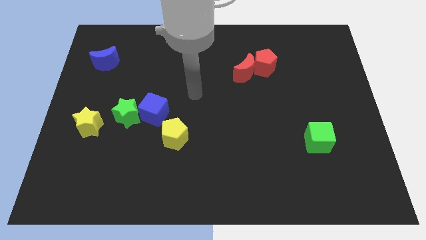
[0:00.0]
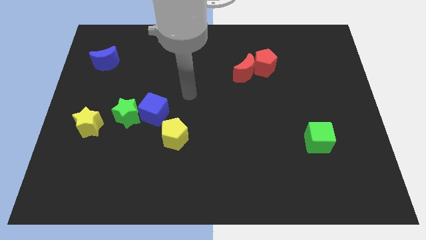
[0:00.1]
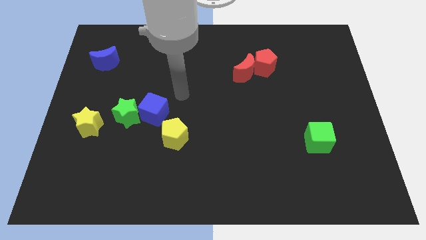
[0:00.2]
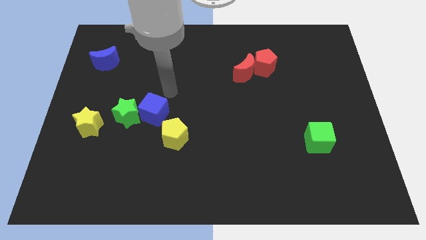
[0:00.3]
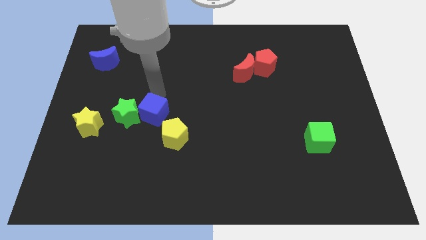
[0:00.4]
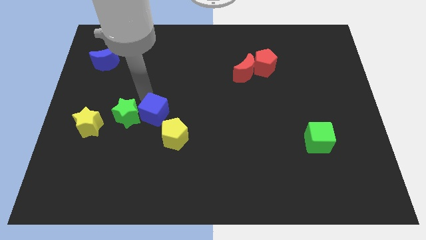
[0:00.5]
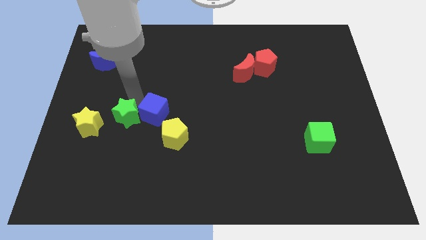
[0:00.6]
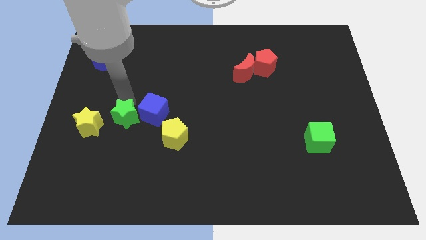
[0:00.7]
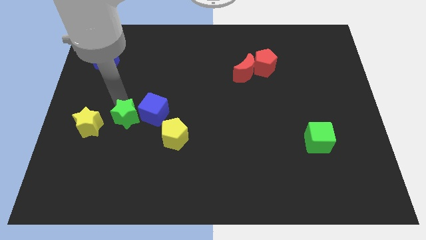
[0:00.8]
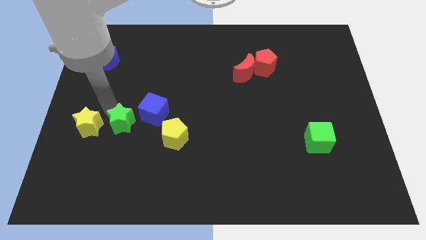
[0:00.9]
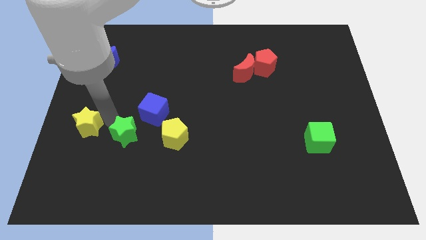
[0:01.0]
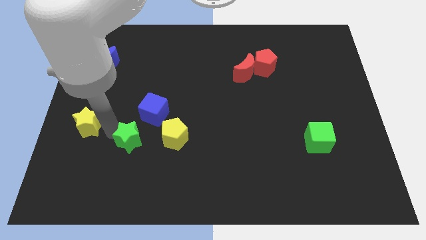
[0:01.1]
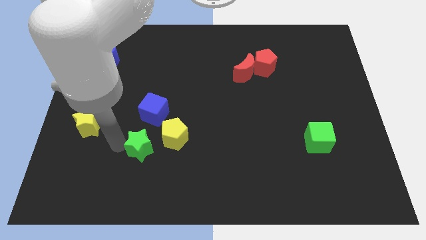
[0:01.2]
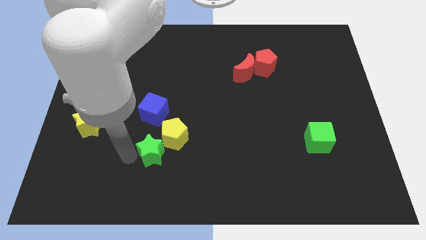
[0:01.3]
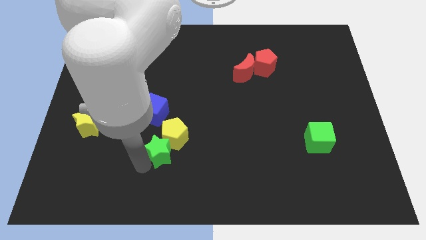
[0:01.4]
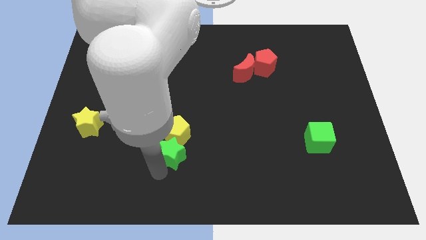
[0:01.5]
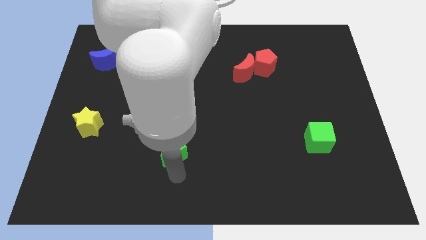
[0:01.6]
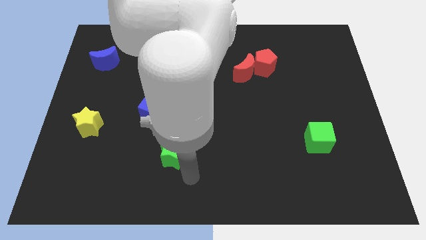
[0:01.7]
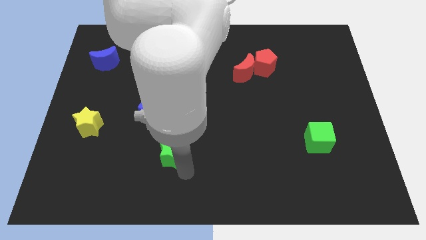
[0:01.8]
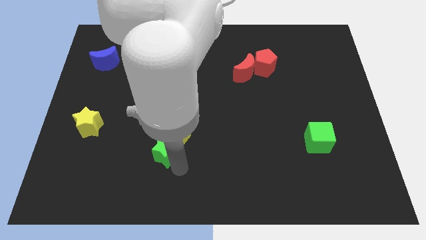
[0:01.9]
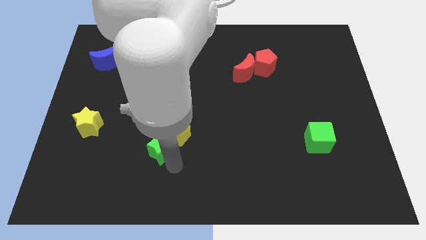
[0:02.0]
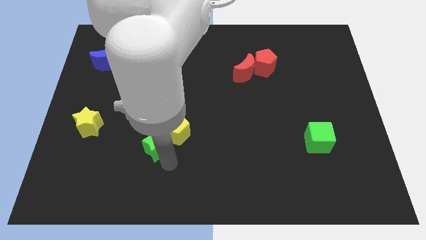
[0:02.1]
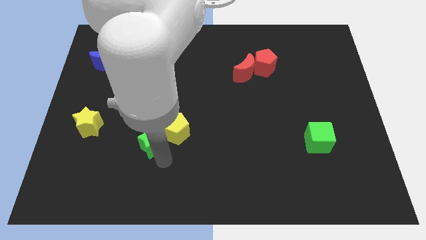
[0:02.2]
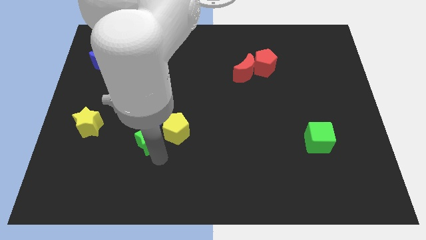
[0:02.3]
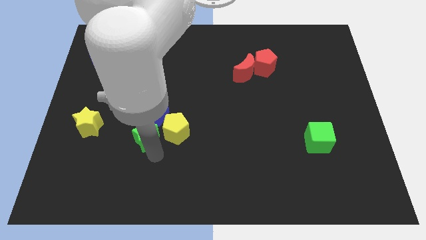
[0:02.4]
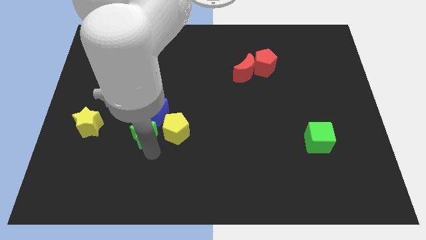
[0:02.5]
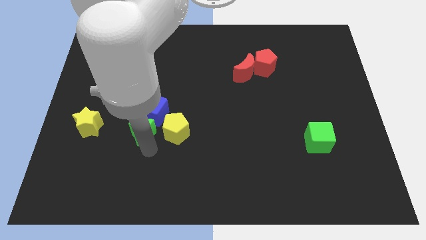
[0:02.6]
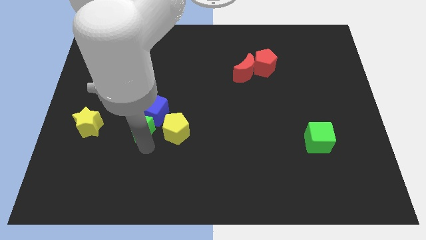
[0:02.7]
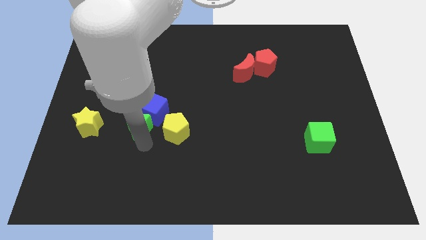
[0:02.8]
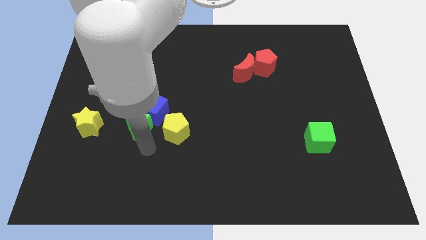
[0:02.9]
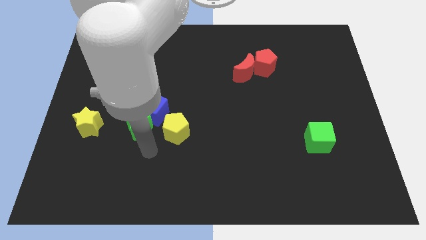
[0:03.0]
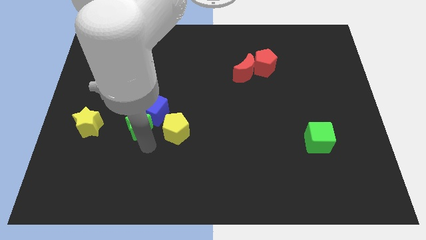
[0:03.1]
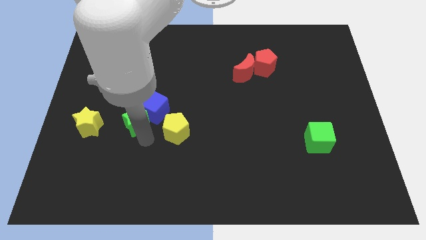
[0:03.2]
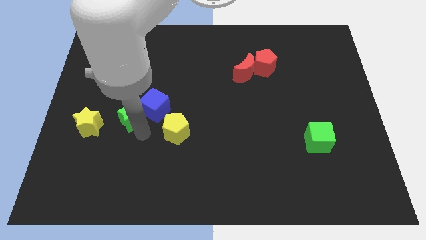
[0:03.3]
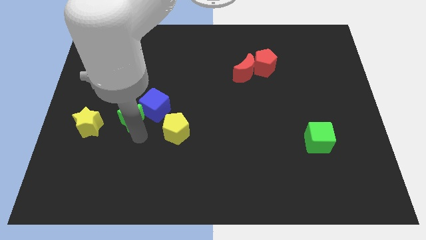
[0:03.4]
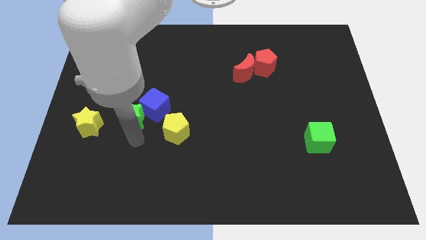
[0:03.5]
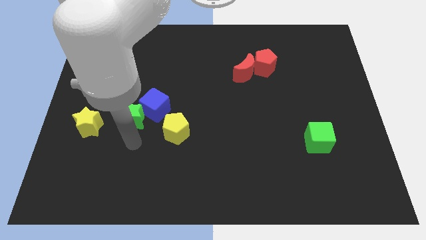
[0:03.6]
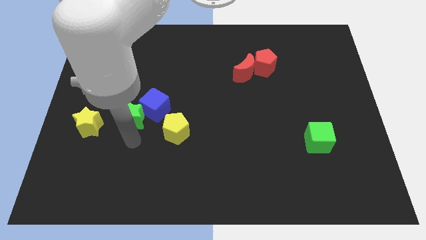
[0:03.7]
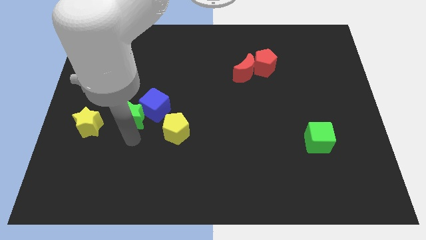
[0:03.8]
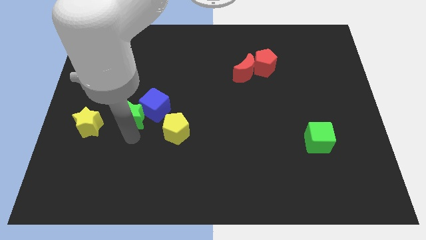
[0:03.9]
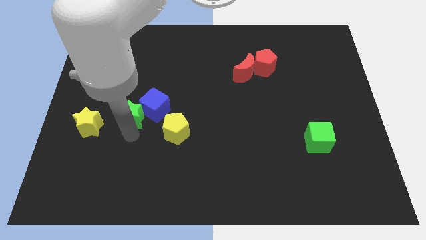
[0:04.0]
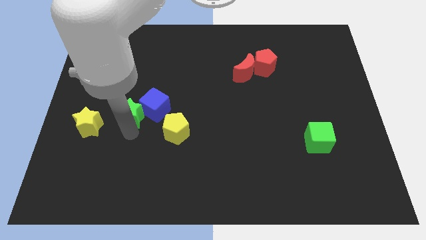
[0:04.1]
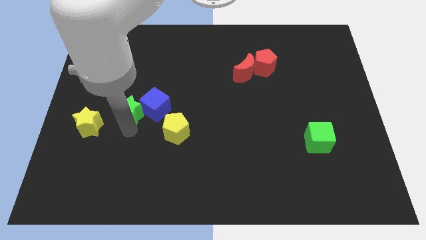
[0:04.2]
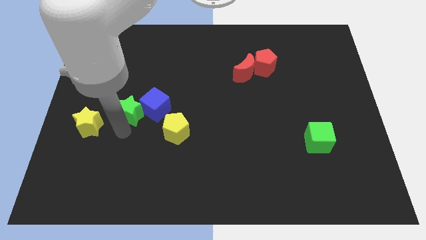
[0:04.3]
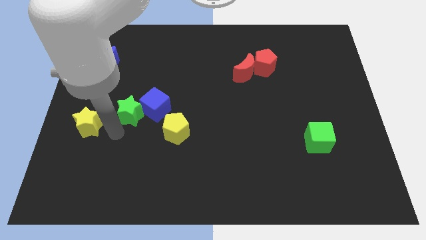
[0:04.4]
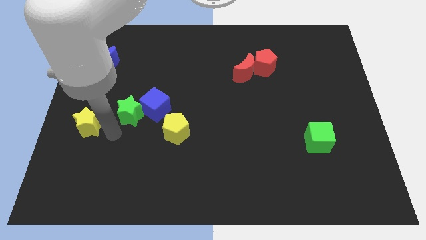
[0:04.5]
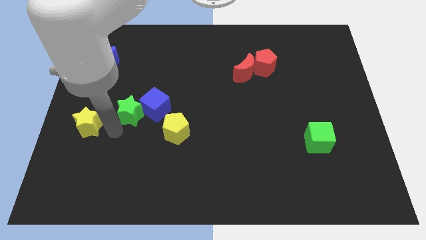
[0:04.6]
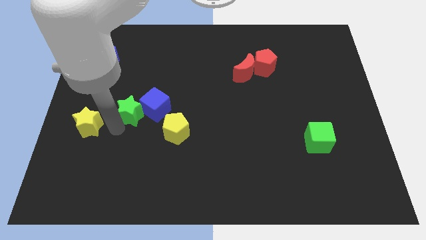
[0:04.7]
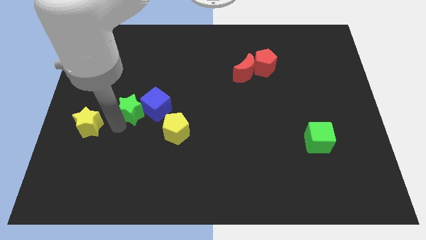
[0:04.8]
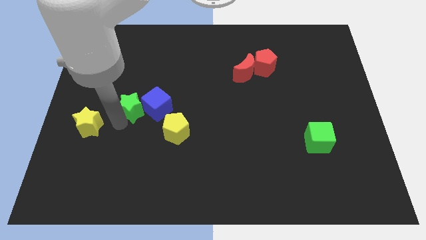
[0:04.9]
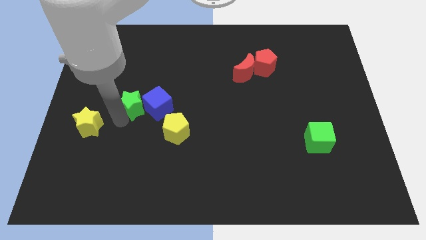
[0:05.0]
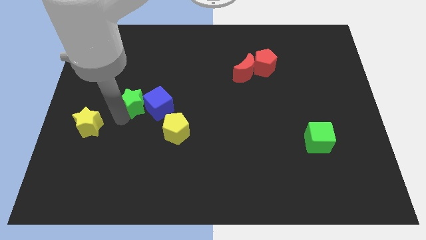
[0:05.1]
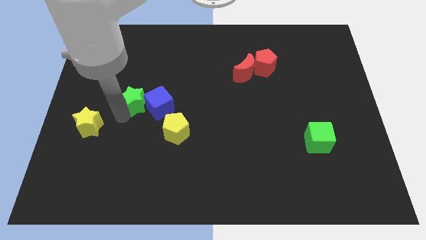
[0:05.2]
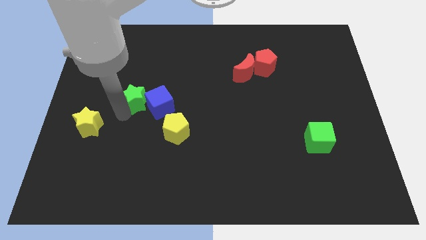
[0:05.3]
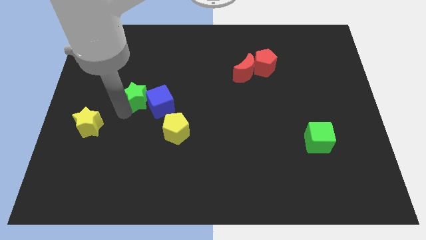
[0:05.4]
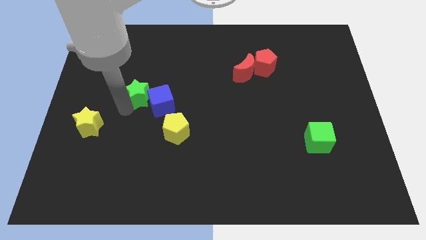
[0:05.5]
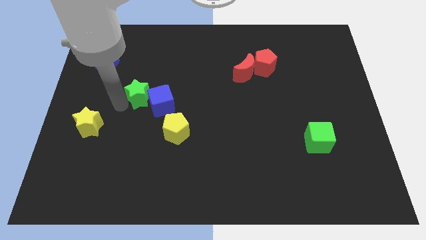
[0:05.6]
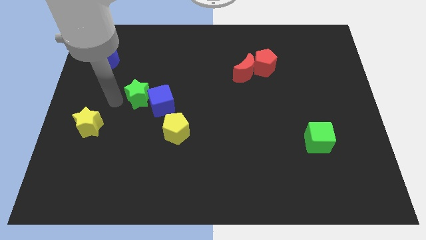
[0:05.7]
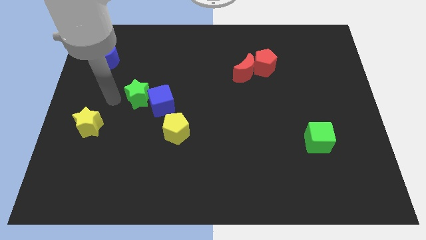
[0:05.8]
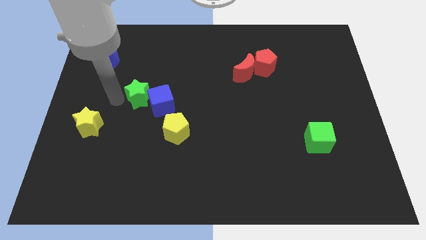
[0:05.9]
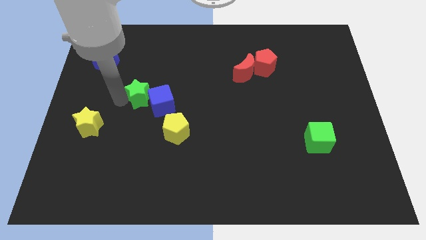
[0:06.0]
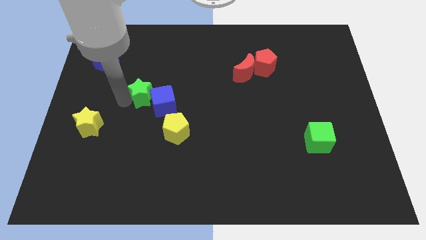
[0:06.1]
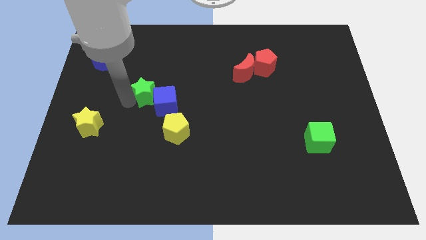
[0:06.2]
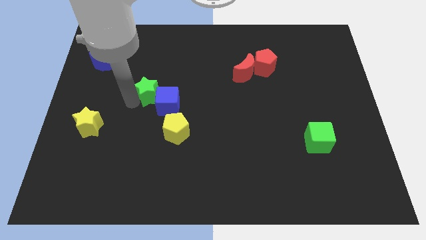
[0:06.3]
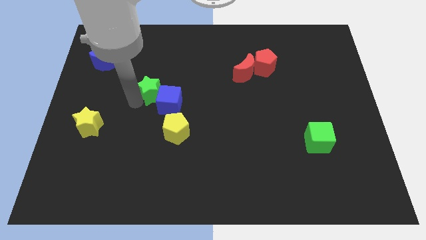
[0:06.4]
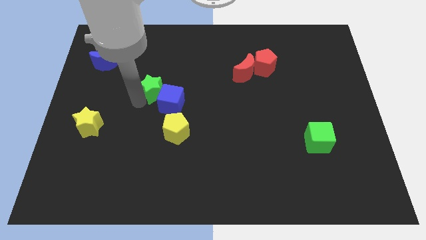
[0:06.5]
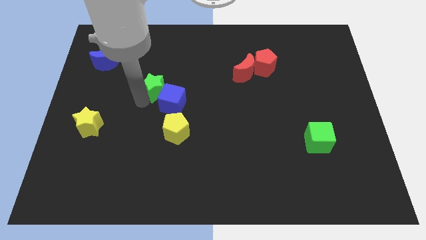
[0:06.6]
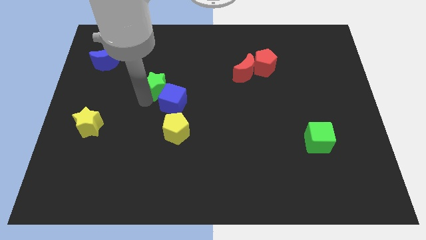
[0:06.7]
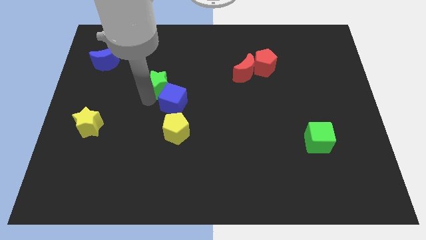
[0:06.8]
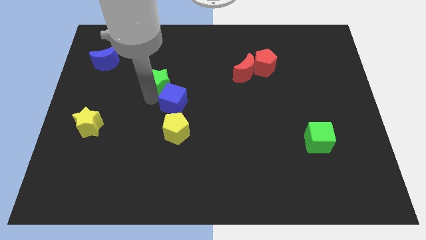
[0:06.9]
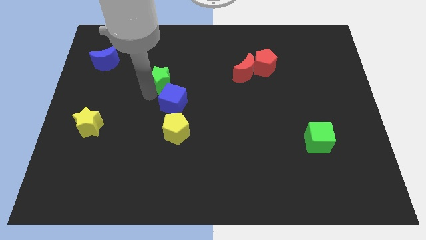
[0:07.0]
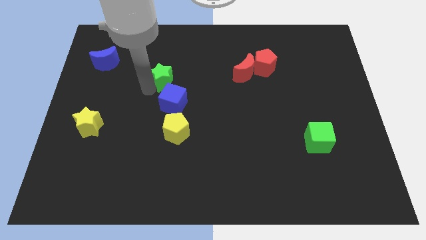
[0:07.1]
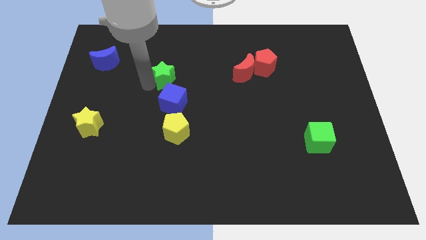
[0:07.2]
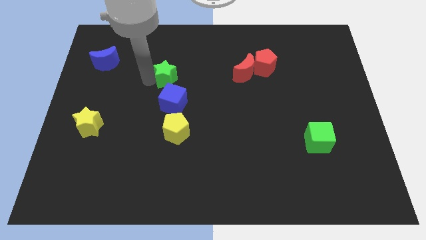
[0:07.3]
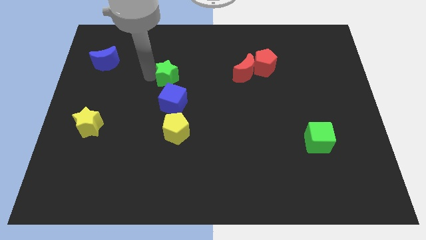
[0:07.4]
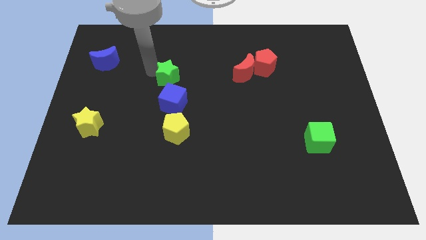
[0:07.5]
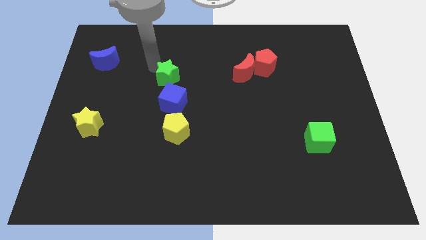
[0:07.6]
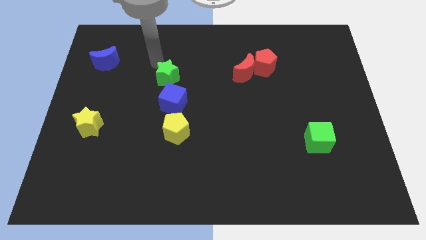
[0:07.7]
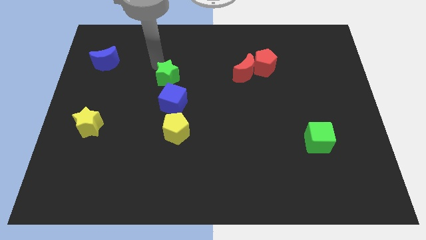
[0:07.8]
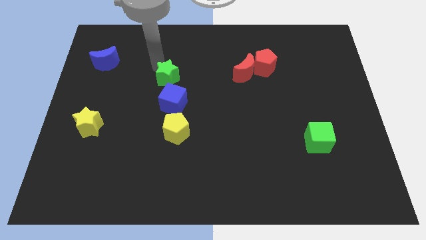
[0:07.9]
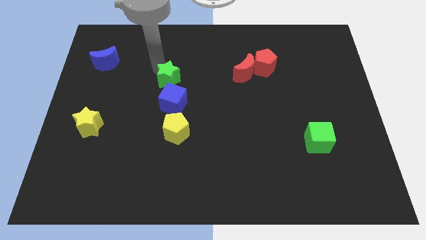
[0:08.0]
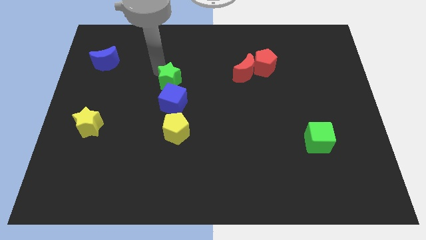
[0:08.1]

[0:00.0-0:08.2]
put the green star to the middle
